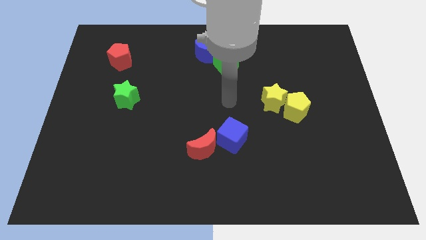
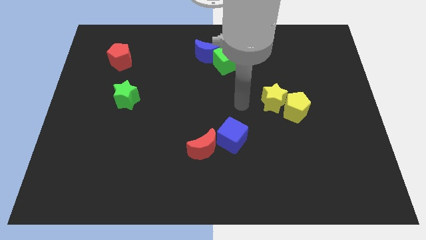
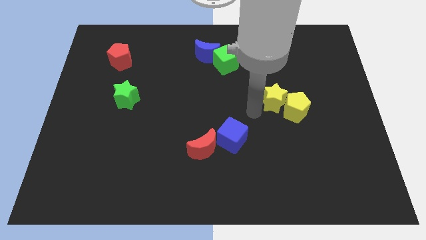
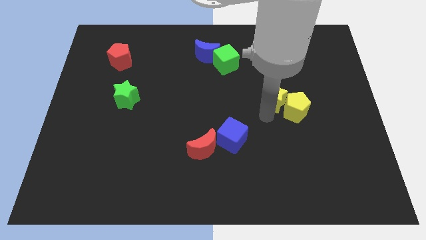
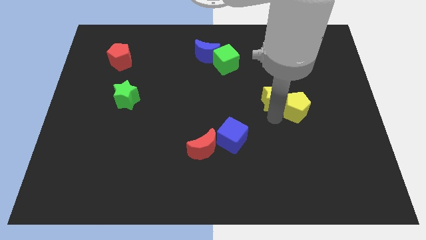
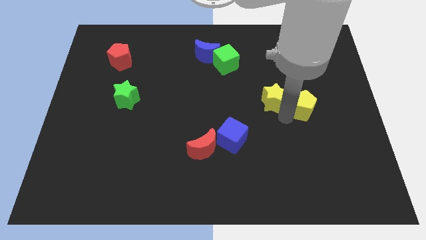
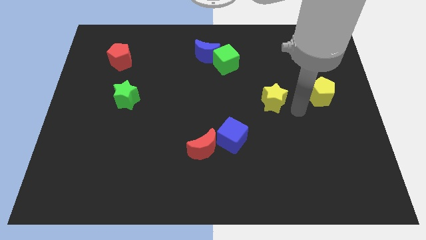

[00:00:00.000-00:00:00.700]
move the yellow star away from the yellow pentagon

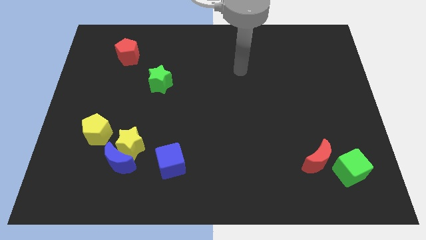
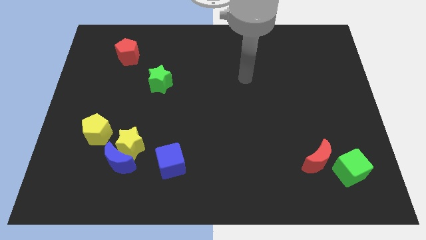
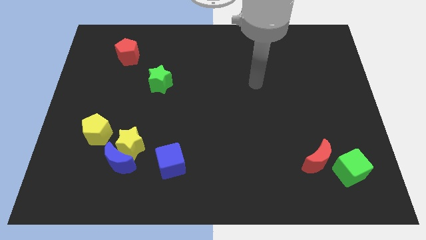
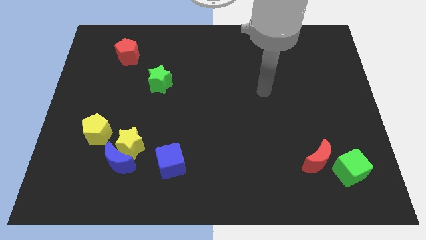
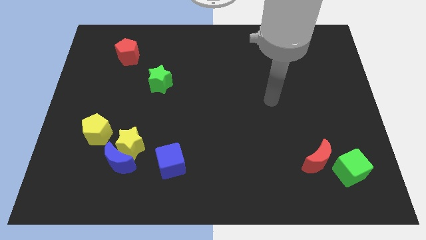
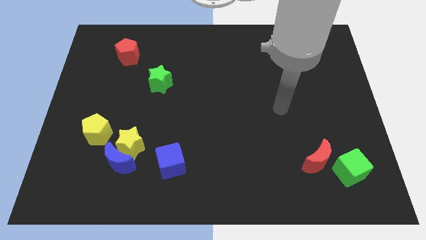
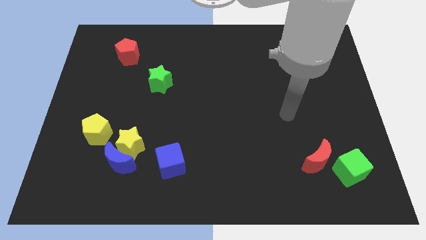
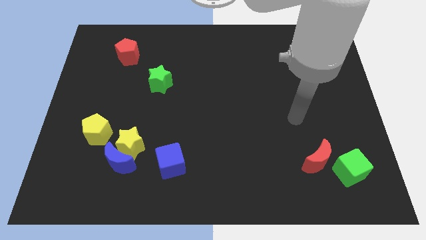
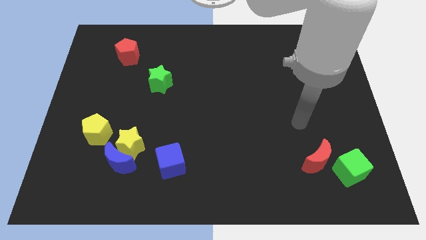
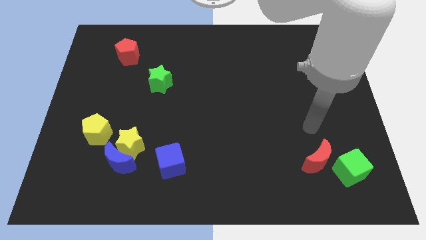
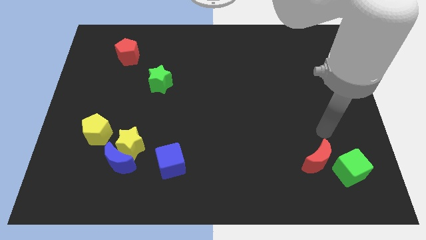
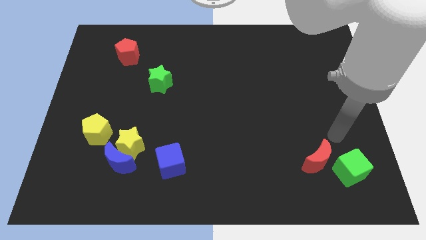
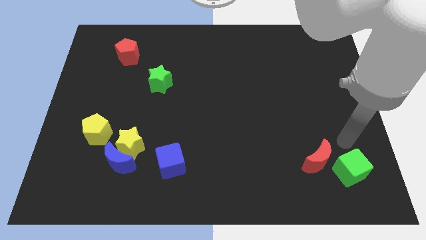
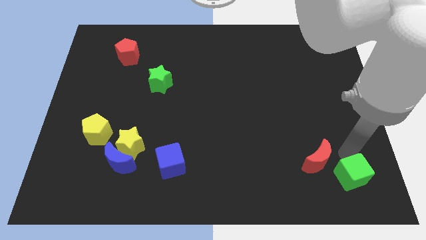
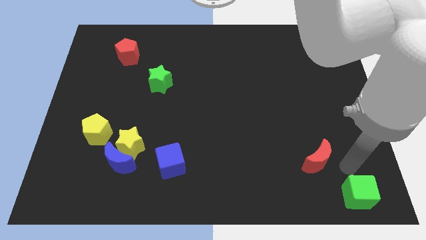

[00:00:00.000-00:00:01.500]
separate the red moon from the green cube

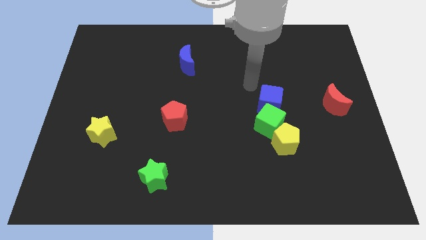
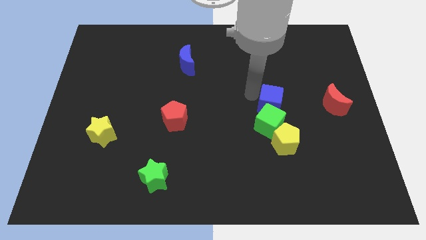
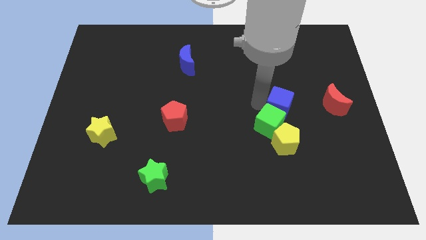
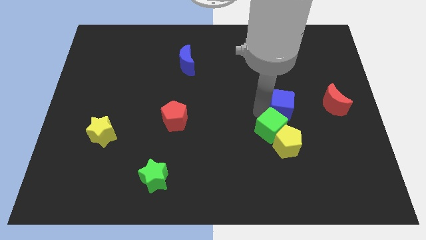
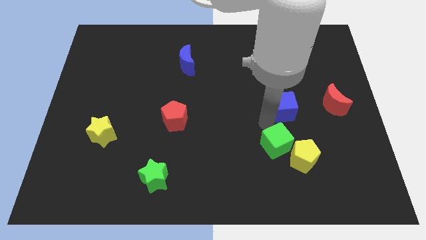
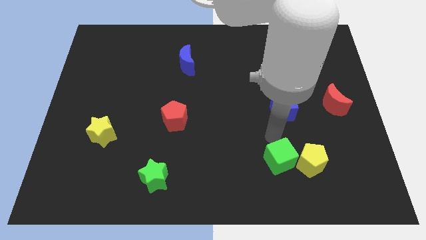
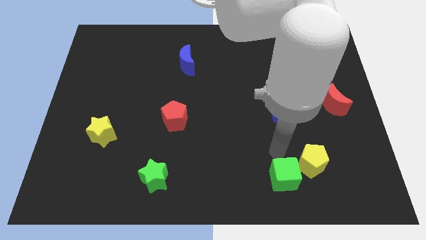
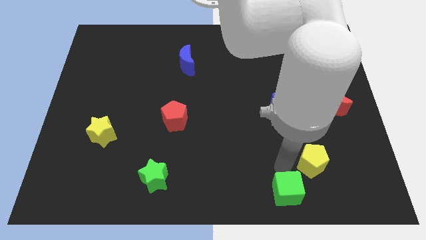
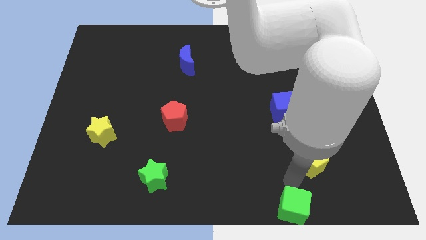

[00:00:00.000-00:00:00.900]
move the yellow pentagon away from the green cube

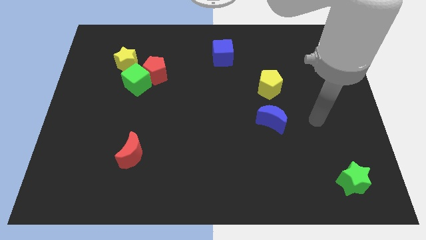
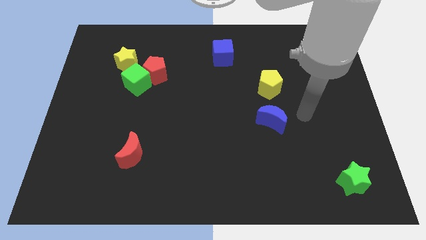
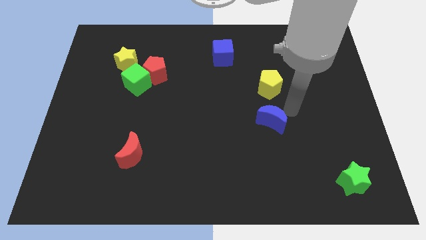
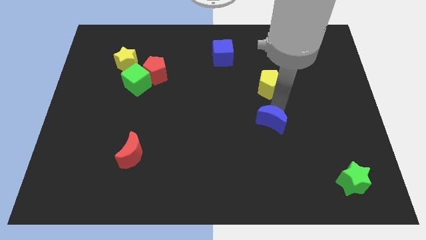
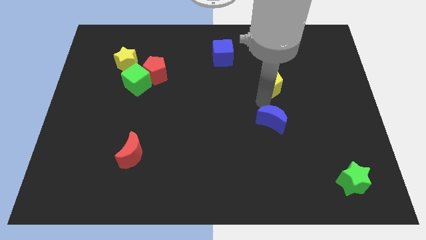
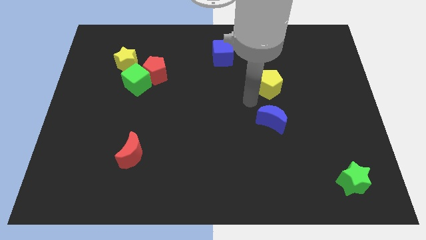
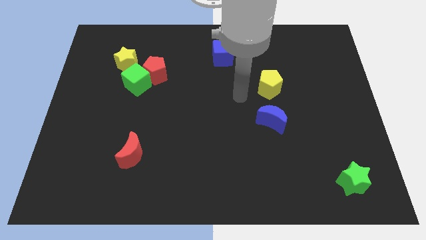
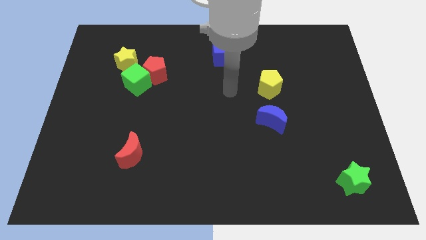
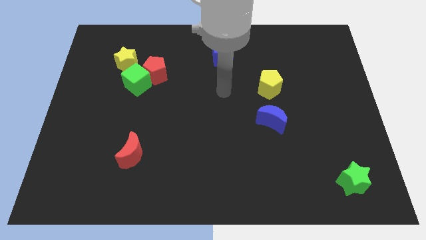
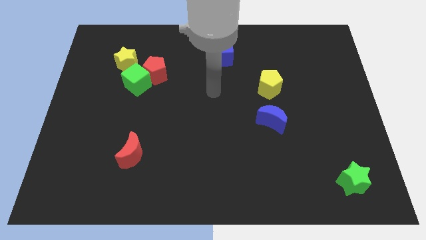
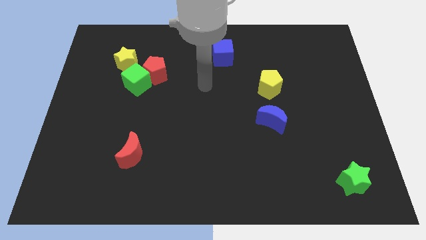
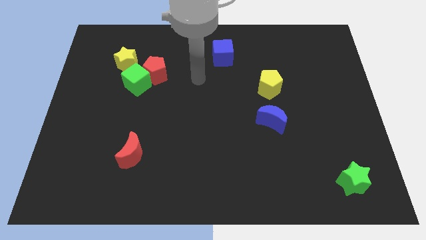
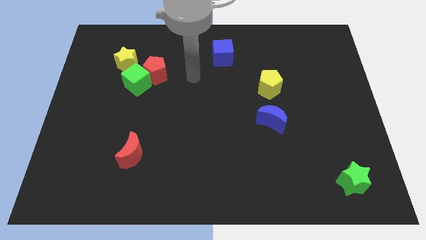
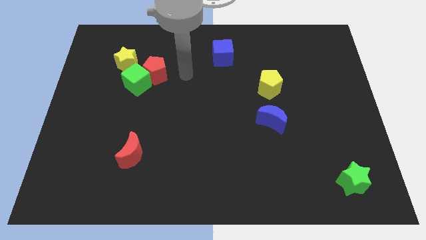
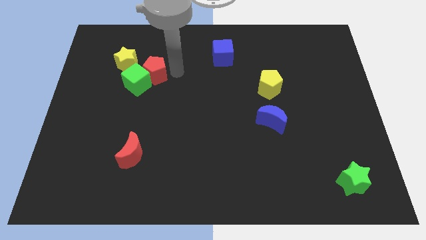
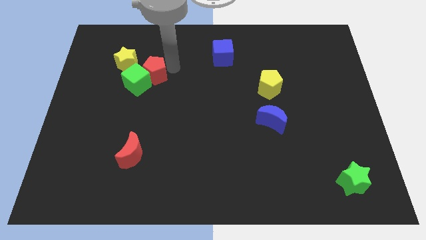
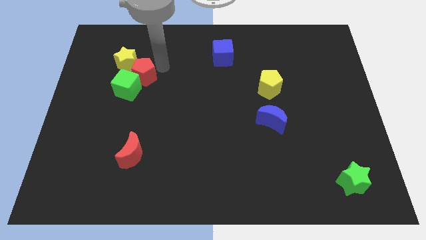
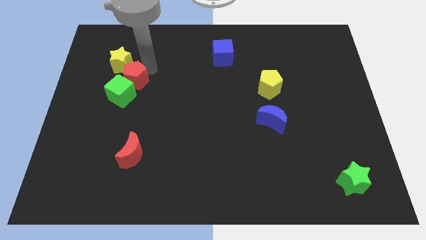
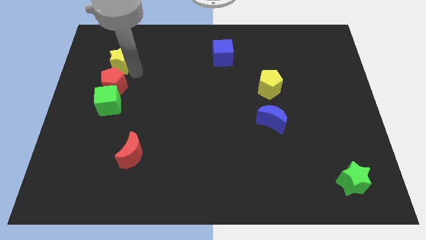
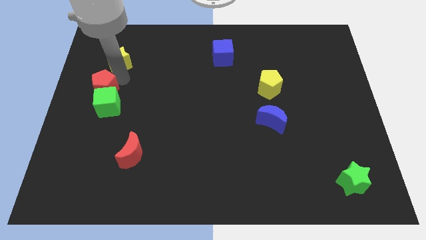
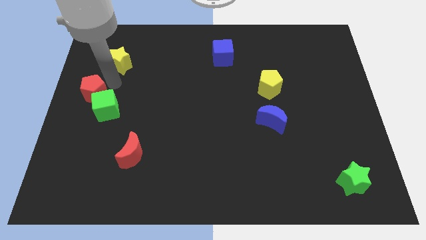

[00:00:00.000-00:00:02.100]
pull the green cube apart from the red pentagon and yellow star

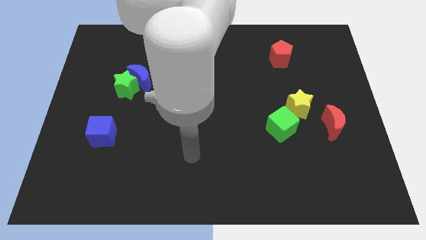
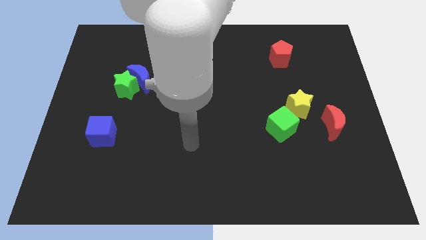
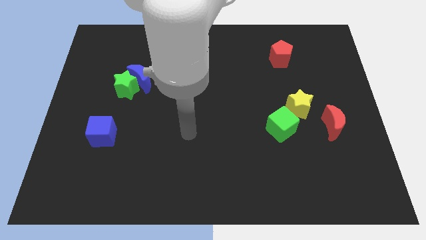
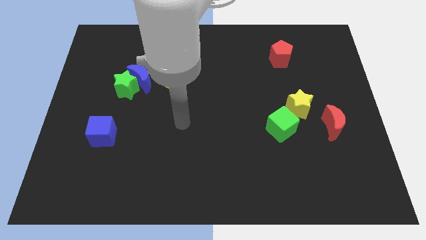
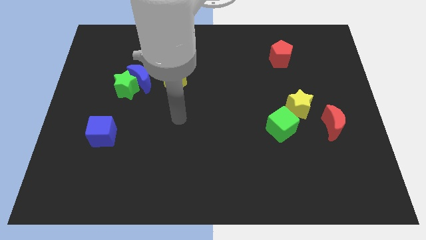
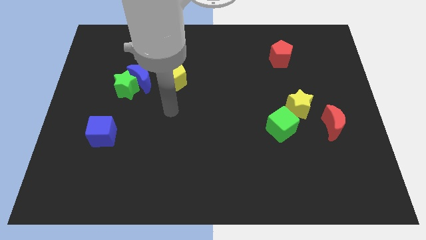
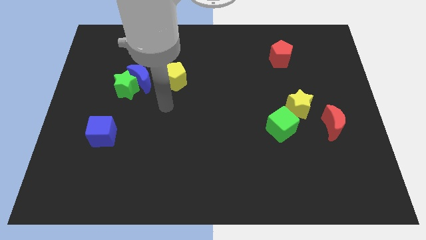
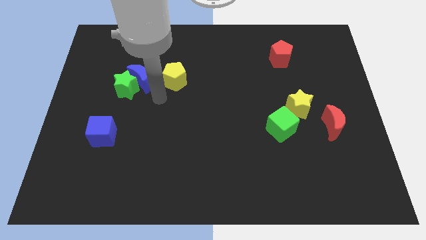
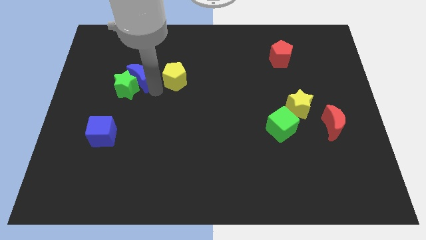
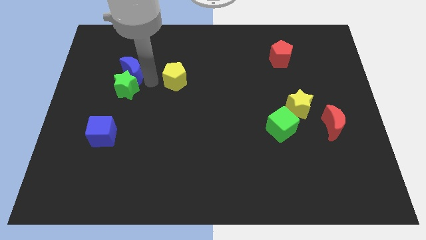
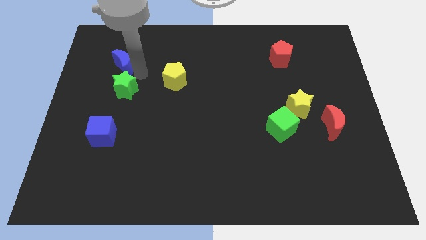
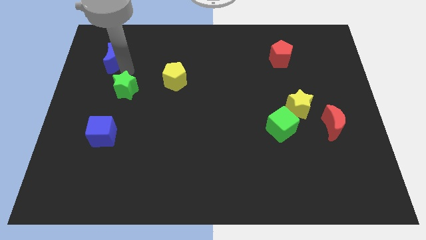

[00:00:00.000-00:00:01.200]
move the green star away from the blue moon

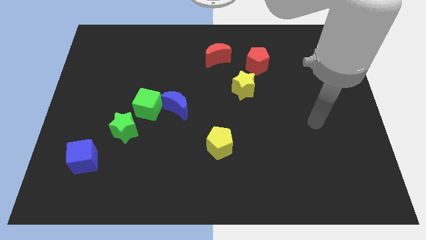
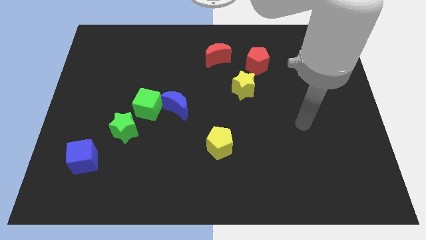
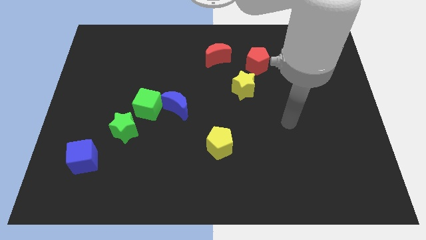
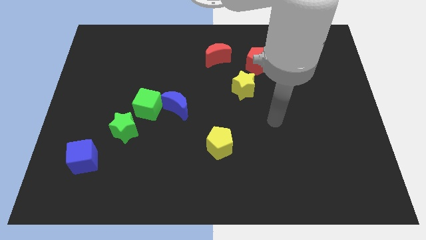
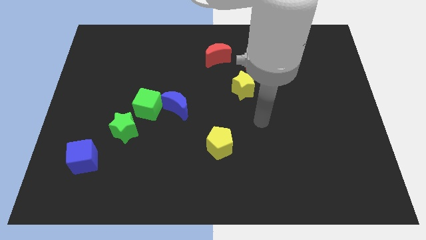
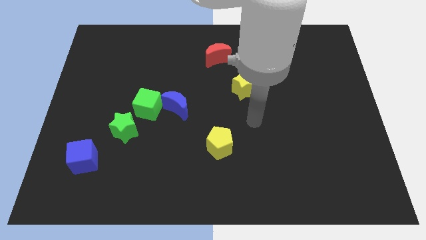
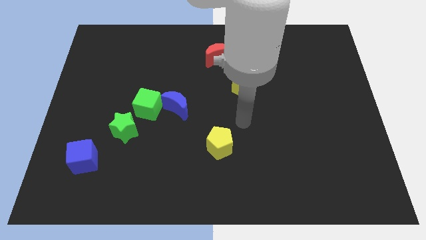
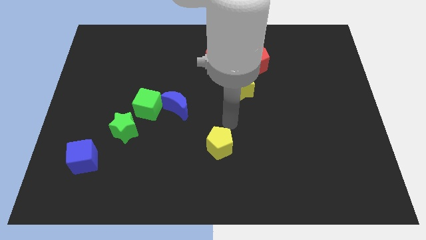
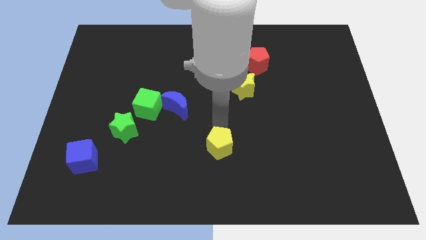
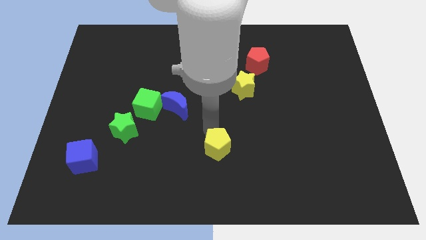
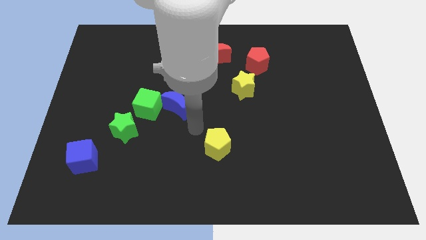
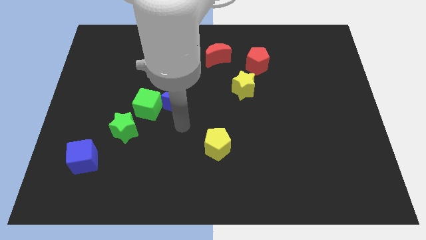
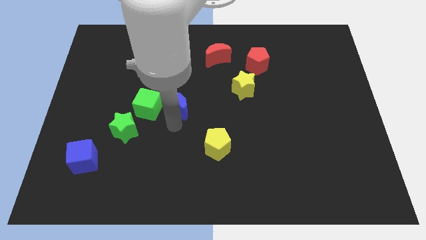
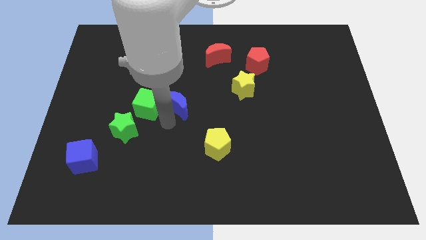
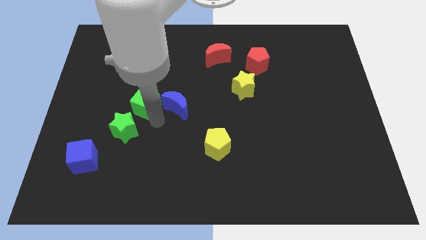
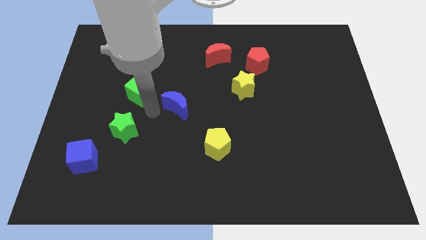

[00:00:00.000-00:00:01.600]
pull the blue moon apart from the green cube

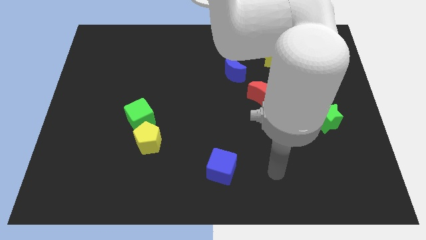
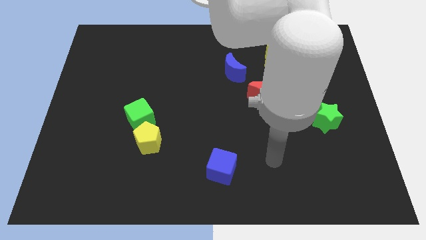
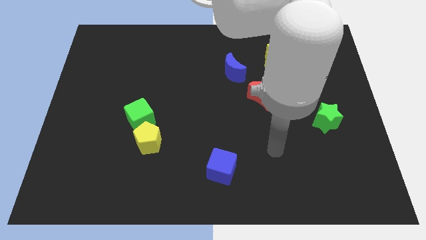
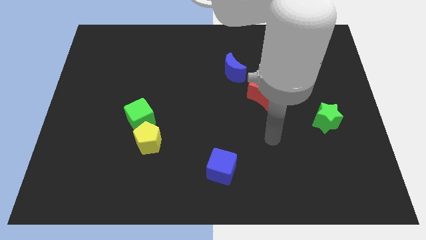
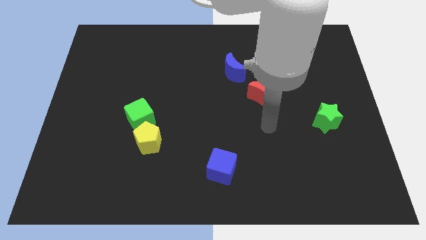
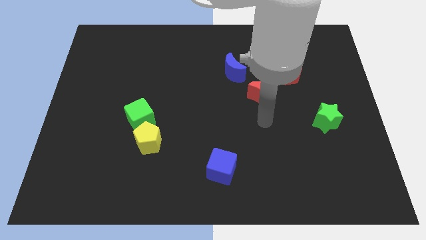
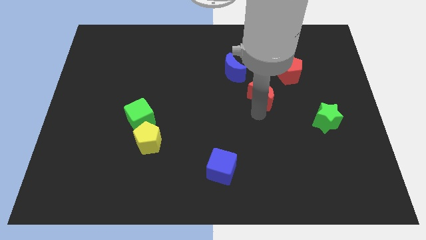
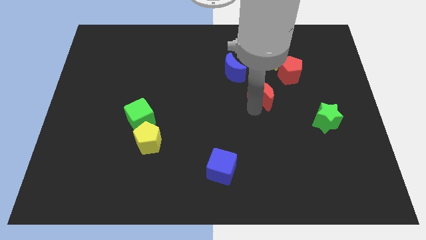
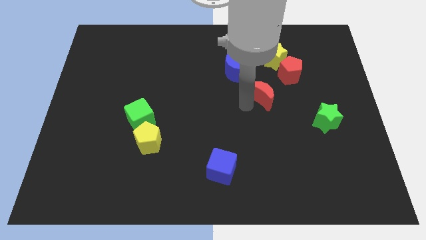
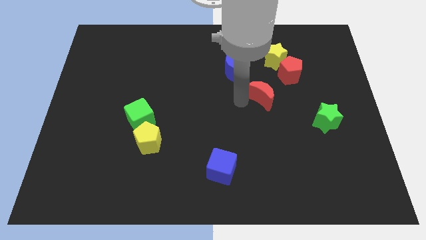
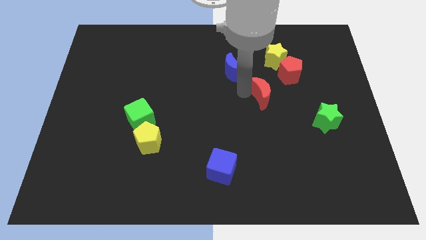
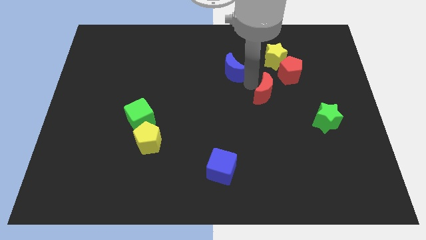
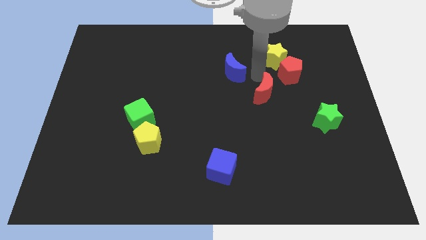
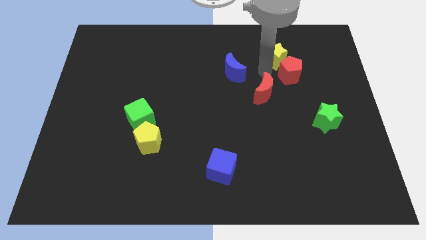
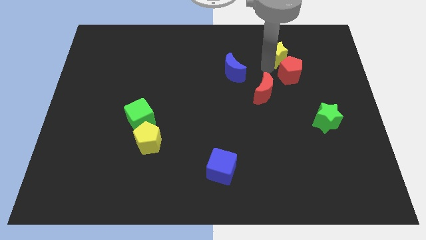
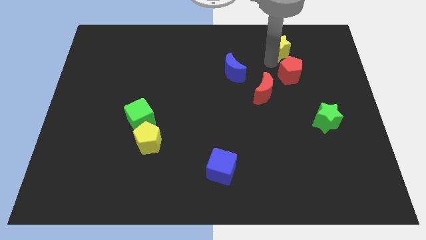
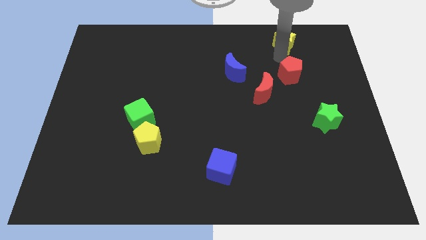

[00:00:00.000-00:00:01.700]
pull the red pentagon apart from the yellow star
